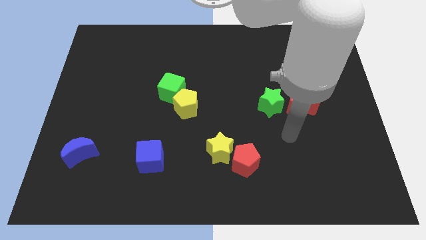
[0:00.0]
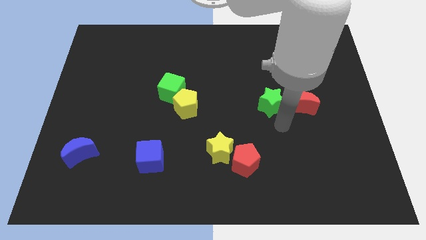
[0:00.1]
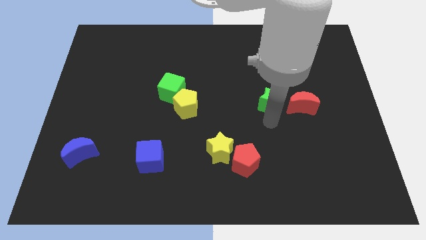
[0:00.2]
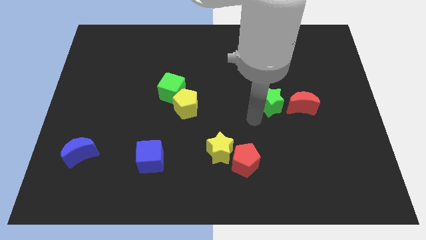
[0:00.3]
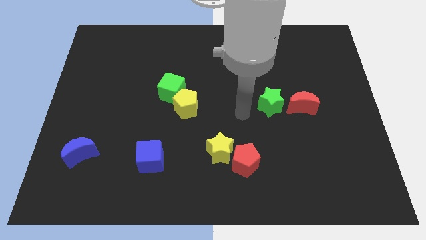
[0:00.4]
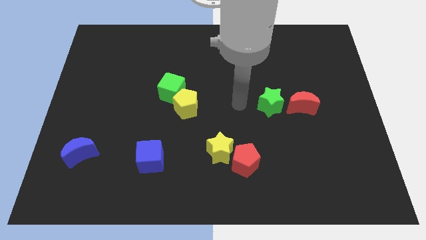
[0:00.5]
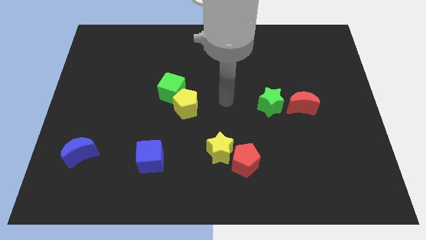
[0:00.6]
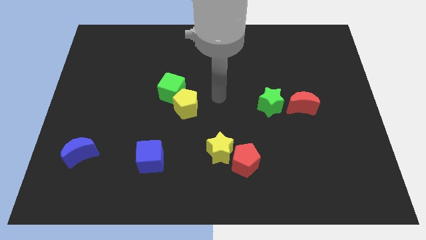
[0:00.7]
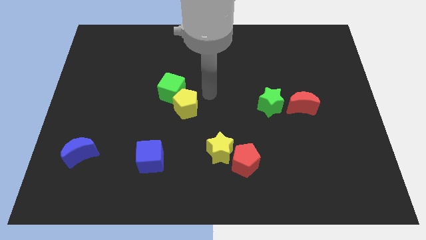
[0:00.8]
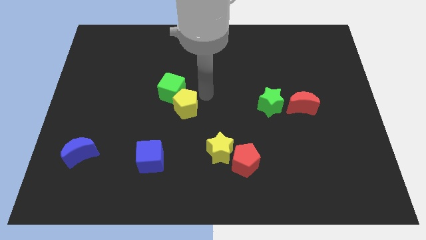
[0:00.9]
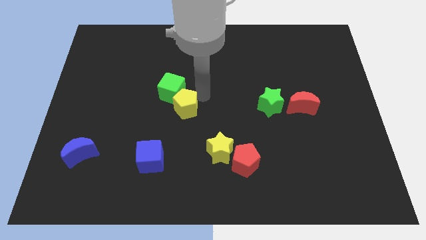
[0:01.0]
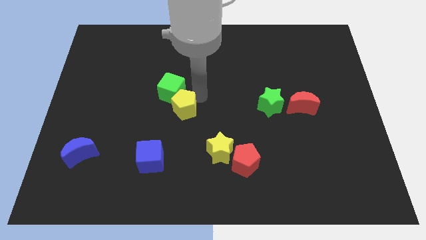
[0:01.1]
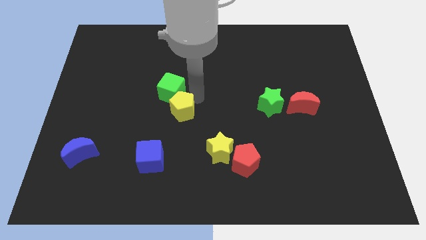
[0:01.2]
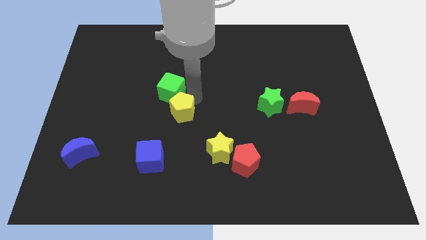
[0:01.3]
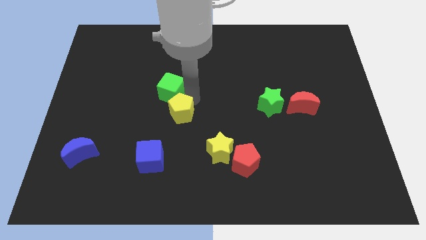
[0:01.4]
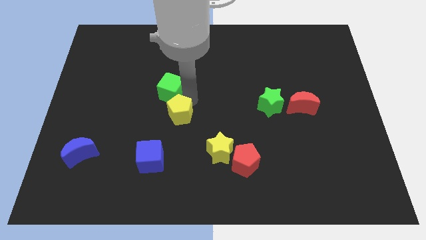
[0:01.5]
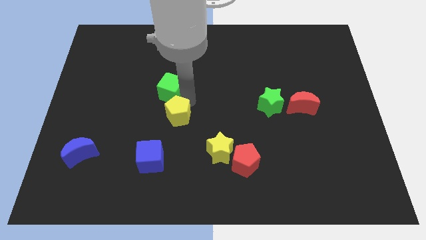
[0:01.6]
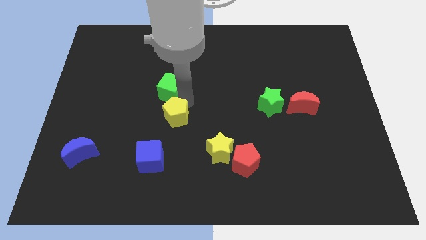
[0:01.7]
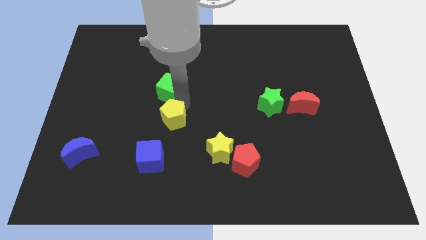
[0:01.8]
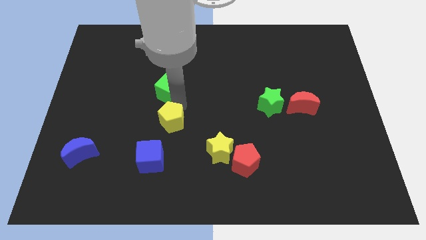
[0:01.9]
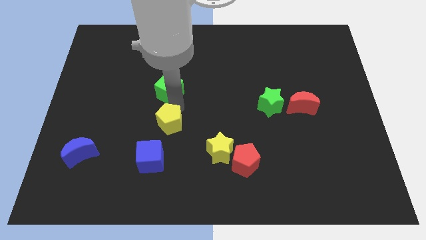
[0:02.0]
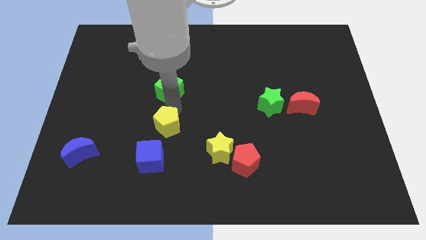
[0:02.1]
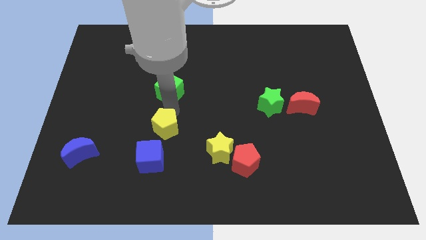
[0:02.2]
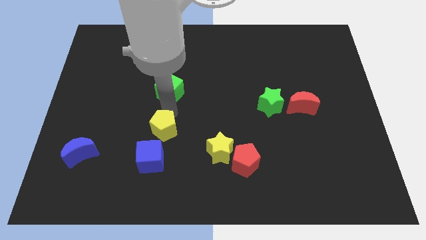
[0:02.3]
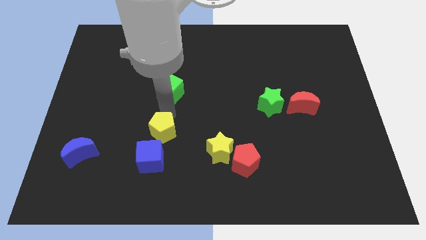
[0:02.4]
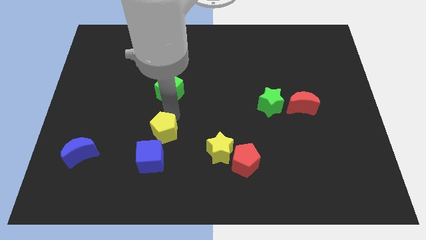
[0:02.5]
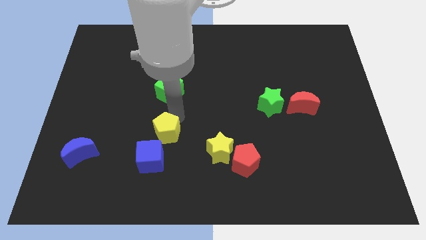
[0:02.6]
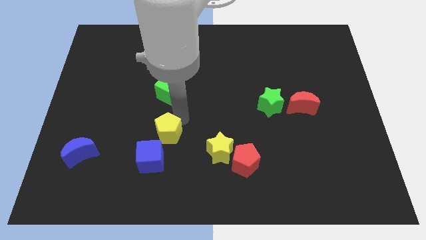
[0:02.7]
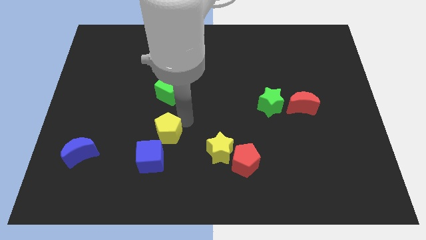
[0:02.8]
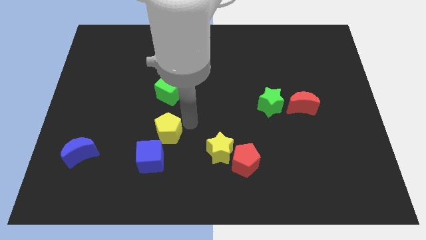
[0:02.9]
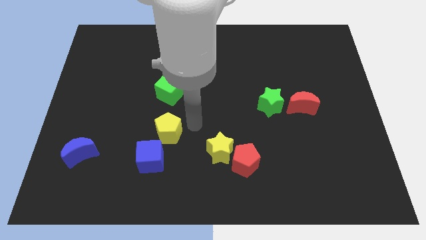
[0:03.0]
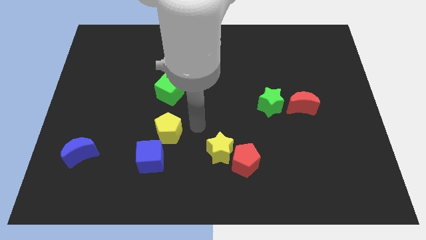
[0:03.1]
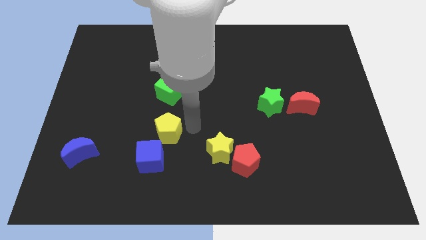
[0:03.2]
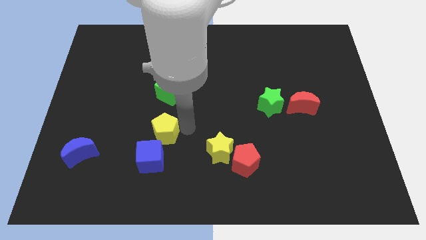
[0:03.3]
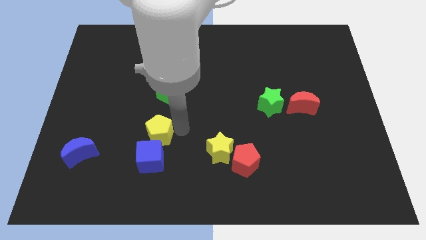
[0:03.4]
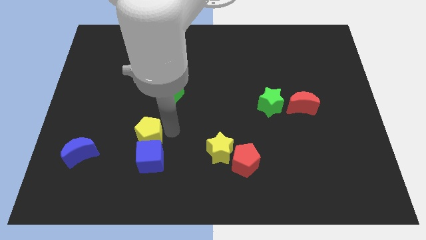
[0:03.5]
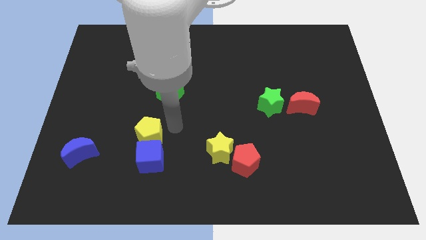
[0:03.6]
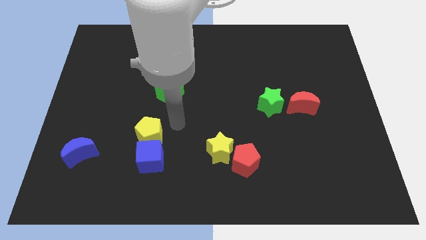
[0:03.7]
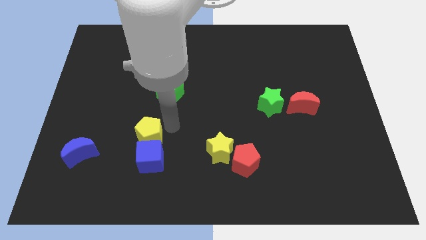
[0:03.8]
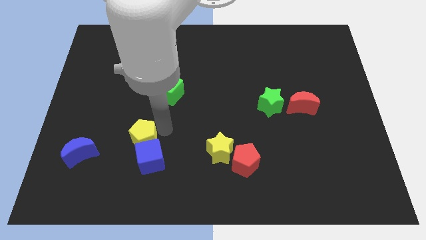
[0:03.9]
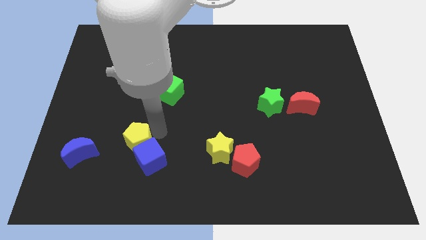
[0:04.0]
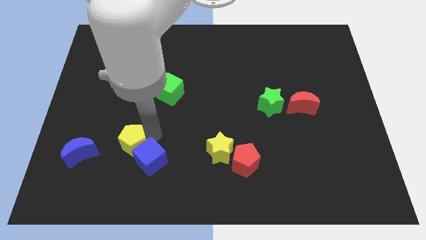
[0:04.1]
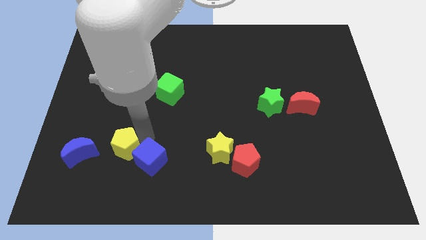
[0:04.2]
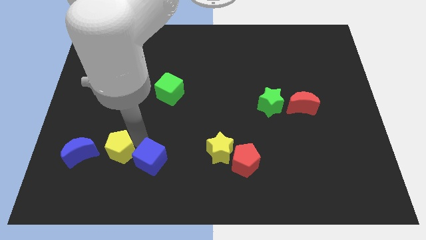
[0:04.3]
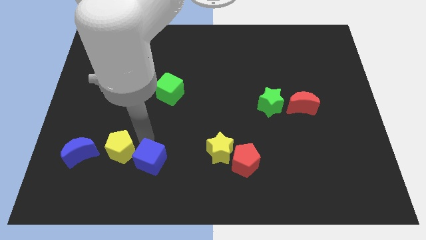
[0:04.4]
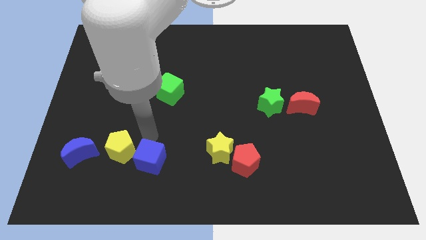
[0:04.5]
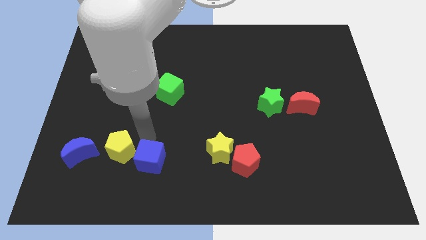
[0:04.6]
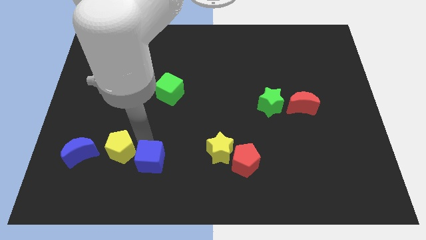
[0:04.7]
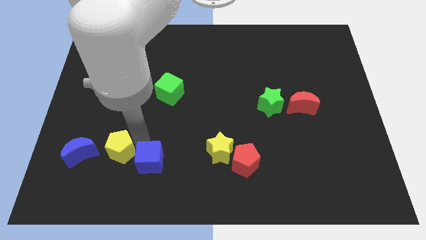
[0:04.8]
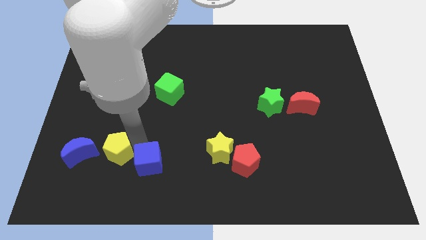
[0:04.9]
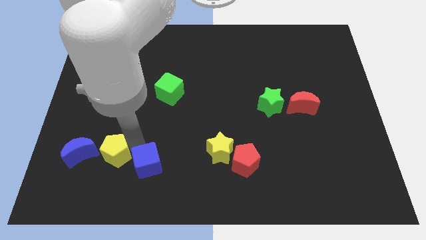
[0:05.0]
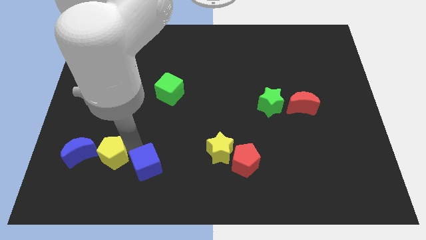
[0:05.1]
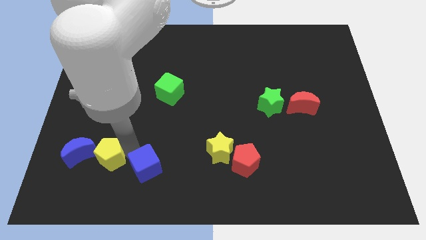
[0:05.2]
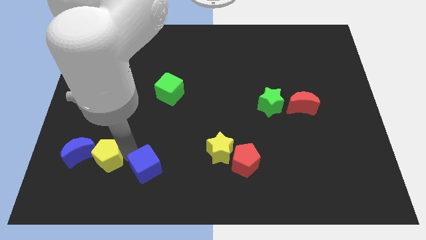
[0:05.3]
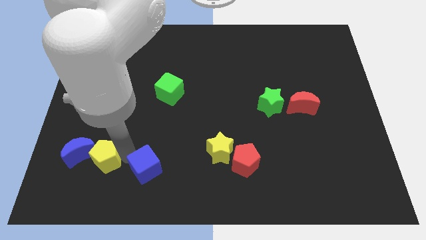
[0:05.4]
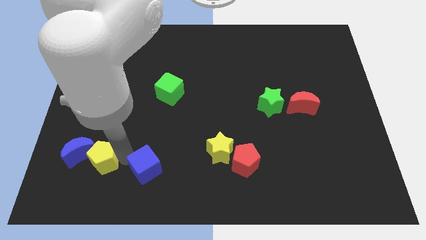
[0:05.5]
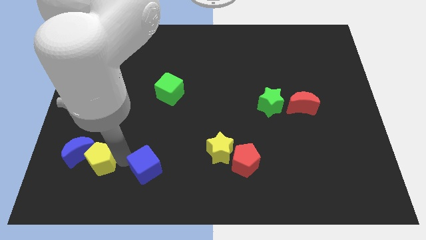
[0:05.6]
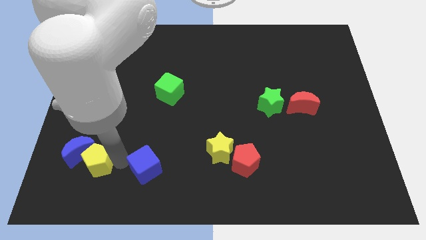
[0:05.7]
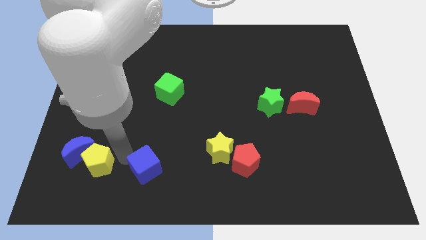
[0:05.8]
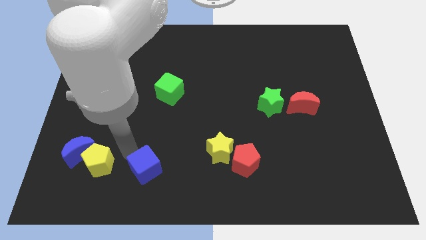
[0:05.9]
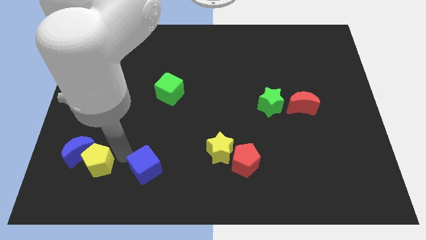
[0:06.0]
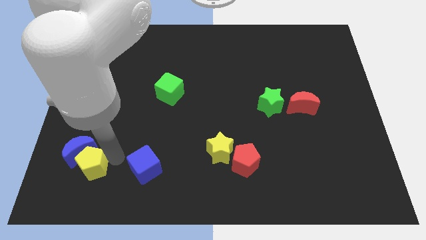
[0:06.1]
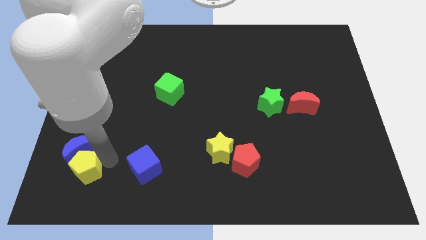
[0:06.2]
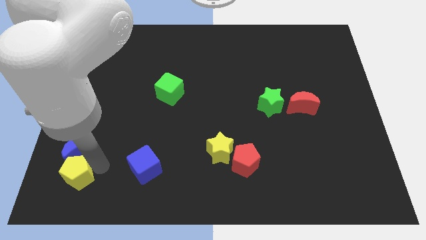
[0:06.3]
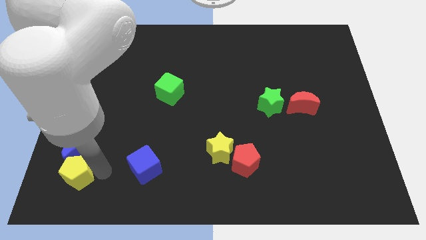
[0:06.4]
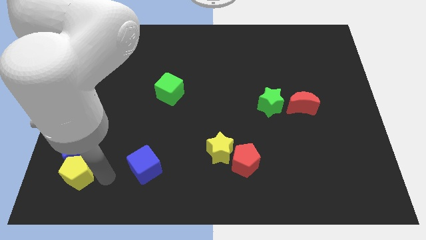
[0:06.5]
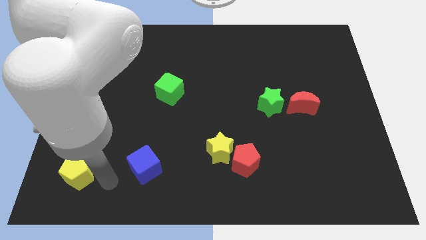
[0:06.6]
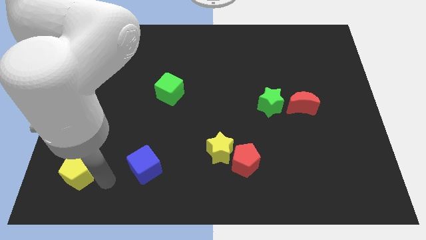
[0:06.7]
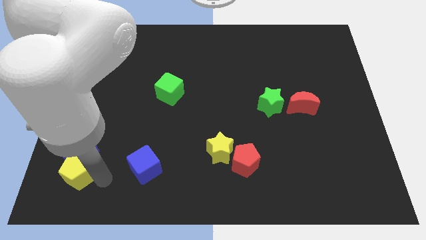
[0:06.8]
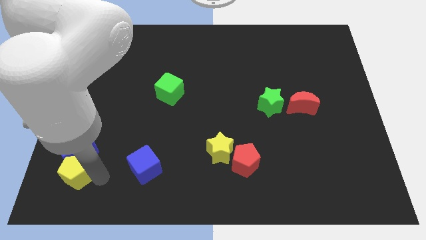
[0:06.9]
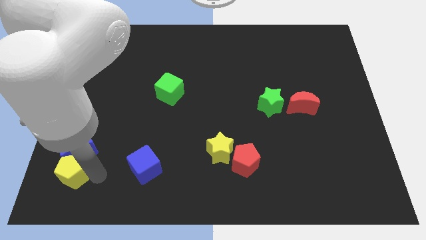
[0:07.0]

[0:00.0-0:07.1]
move the yellow pentagon to the lower left corner

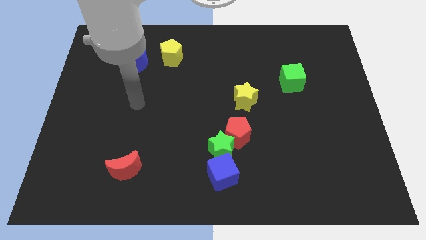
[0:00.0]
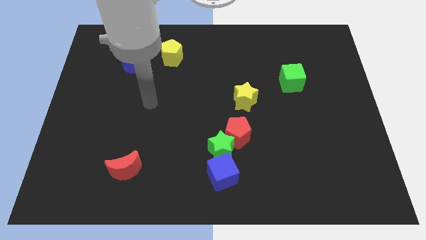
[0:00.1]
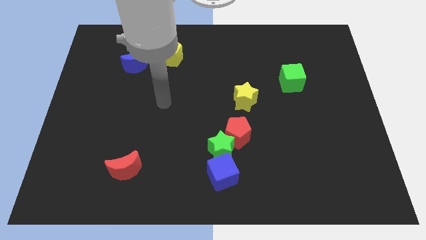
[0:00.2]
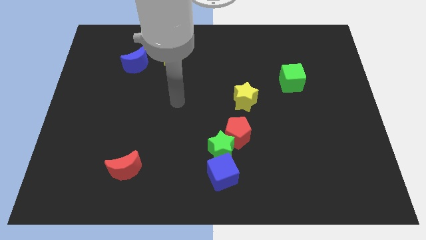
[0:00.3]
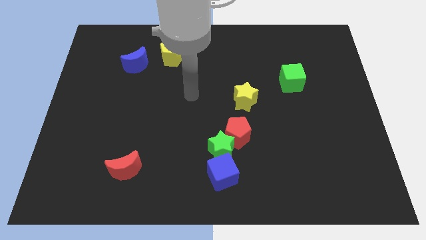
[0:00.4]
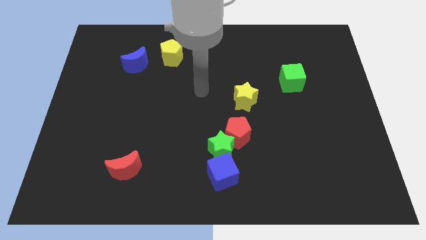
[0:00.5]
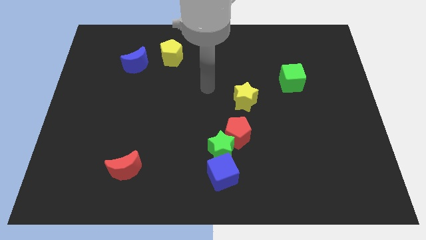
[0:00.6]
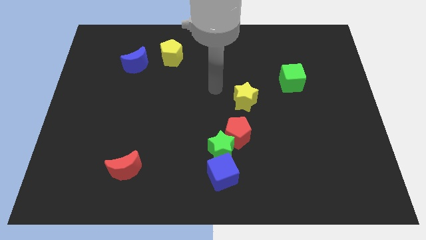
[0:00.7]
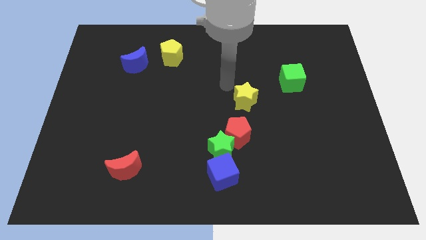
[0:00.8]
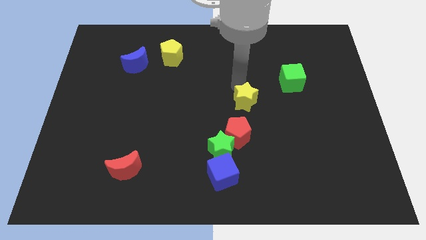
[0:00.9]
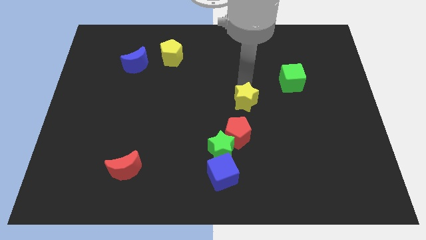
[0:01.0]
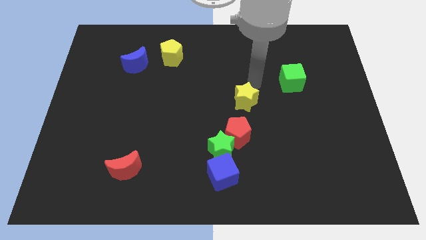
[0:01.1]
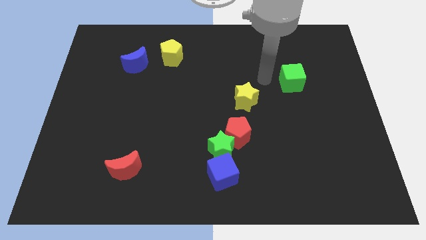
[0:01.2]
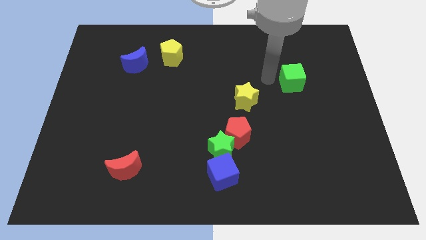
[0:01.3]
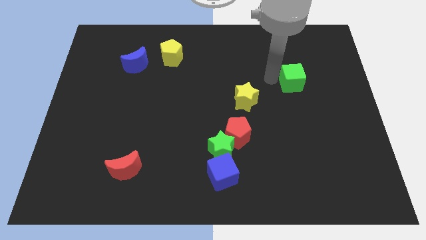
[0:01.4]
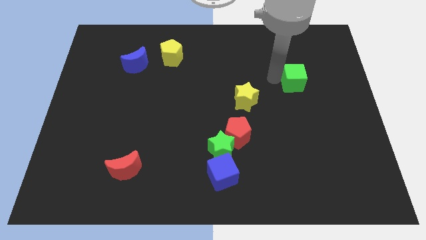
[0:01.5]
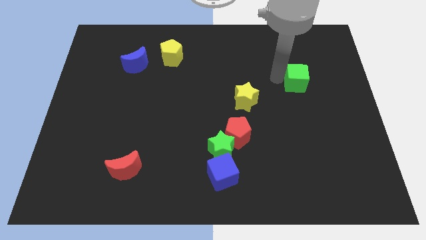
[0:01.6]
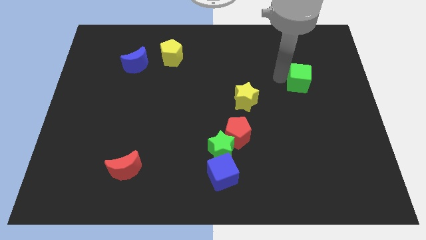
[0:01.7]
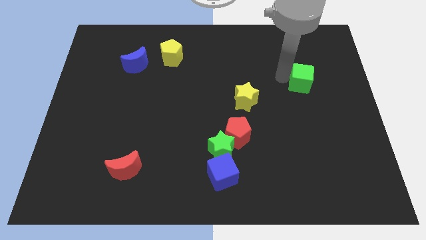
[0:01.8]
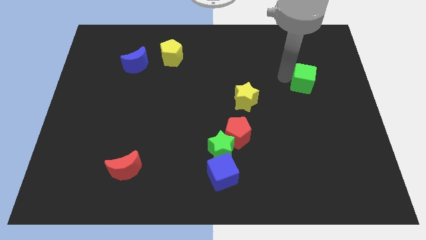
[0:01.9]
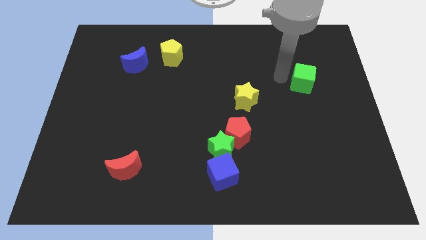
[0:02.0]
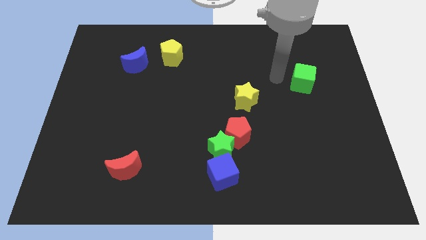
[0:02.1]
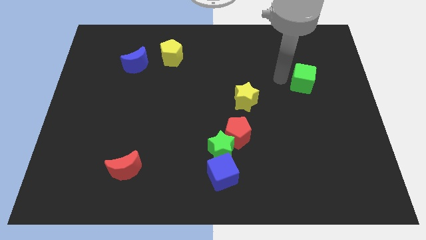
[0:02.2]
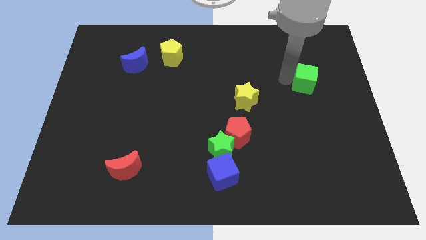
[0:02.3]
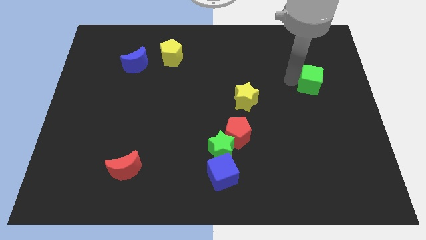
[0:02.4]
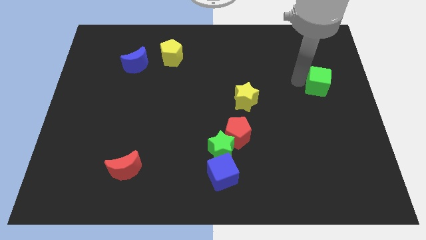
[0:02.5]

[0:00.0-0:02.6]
put the green cube to the center right
